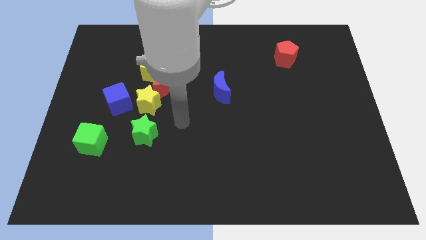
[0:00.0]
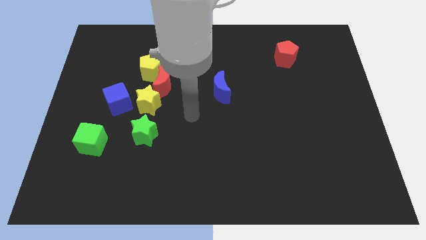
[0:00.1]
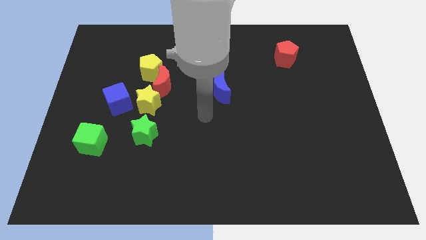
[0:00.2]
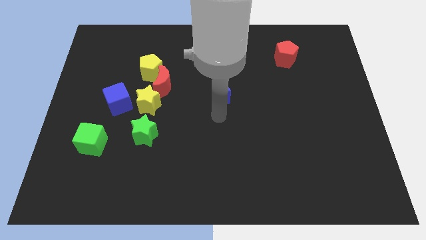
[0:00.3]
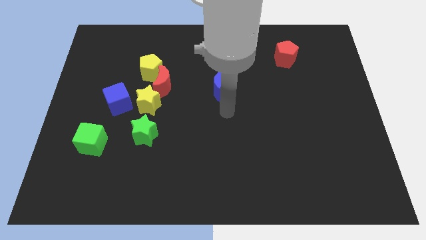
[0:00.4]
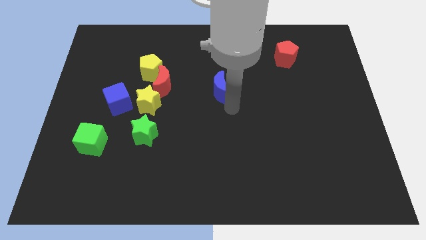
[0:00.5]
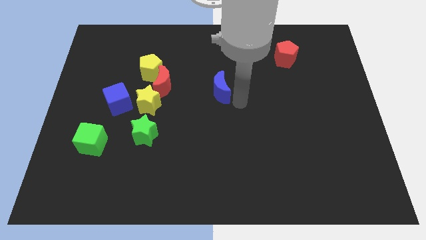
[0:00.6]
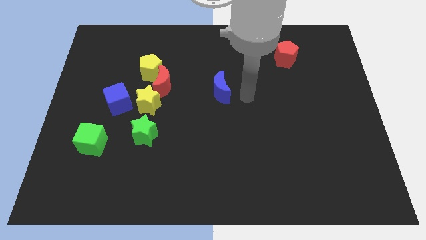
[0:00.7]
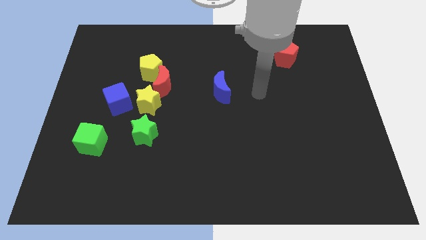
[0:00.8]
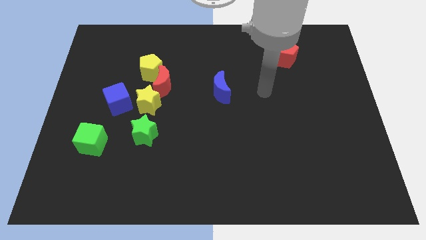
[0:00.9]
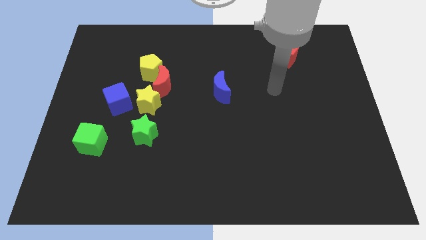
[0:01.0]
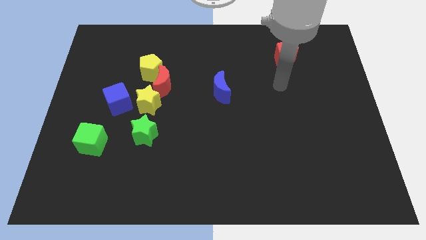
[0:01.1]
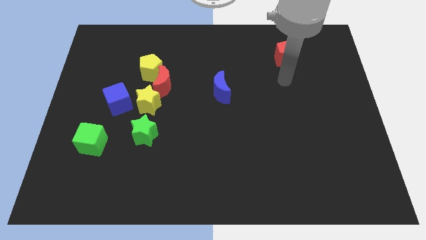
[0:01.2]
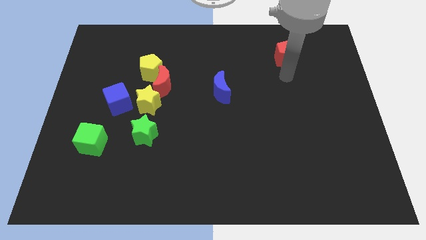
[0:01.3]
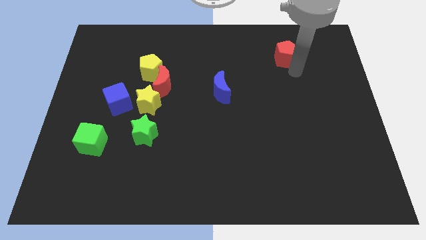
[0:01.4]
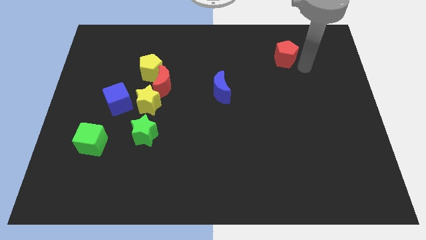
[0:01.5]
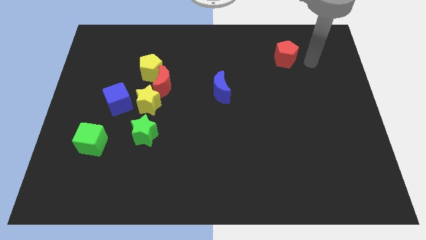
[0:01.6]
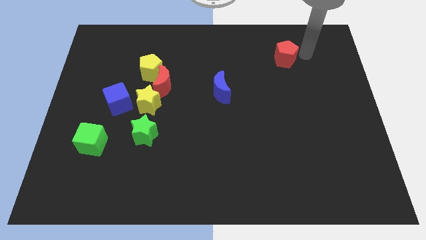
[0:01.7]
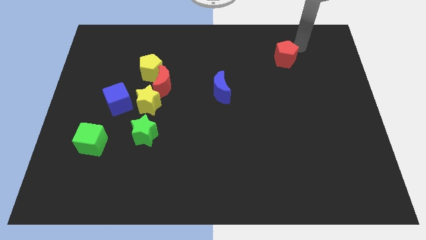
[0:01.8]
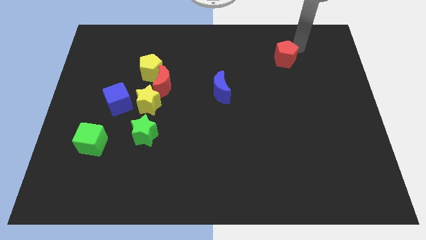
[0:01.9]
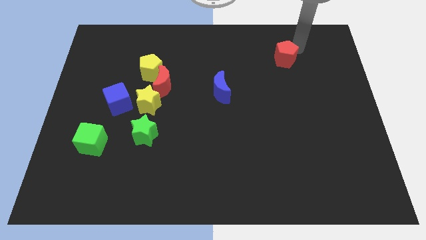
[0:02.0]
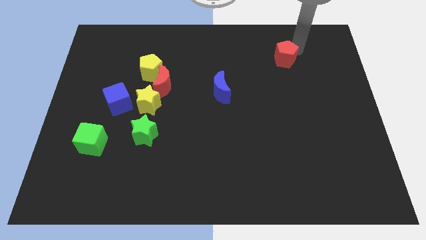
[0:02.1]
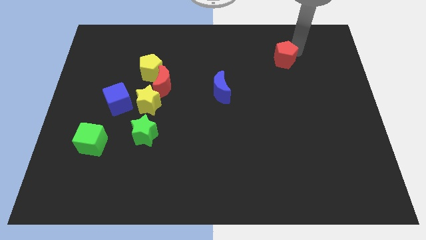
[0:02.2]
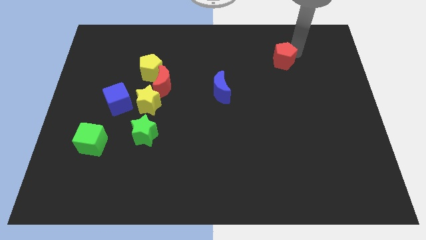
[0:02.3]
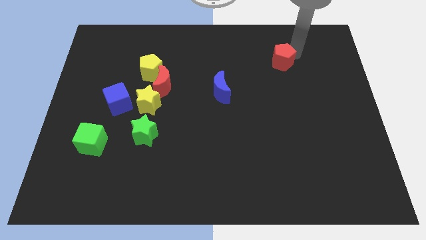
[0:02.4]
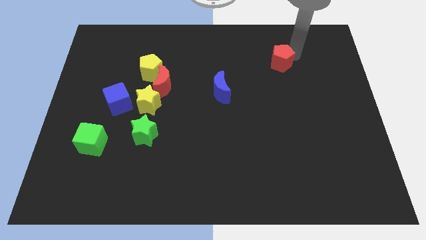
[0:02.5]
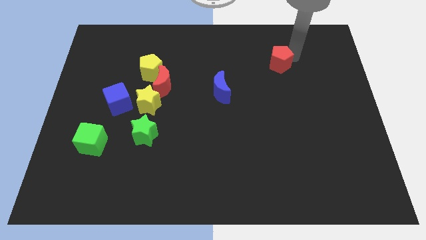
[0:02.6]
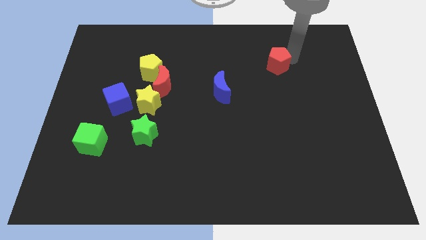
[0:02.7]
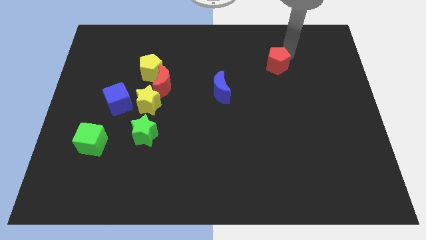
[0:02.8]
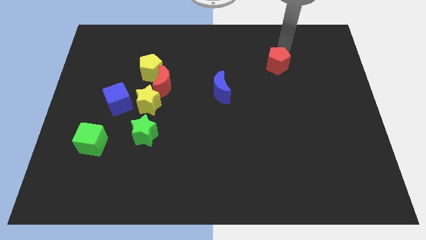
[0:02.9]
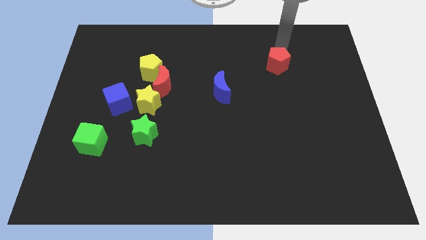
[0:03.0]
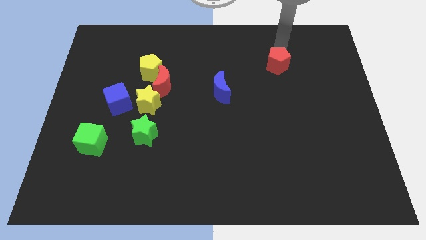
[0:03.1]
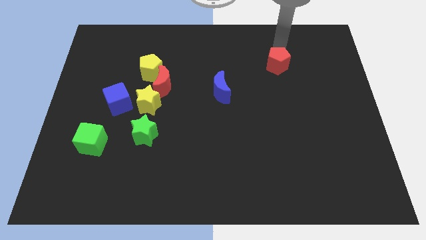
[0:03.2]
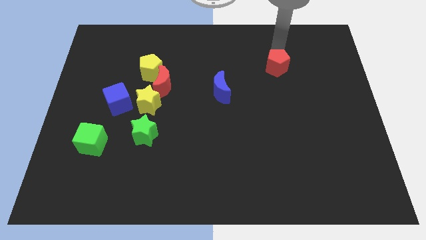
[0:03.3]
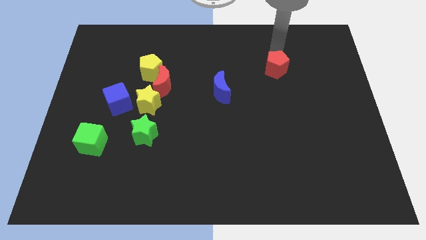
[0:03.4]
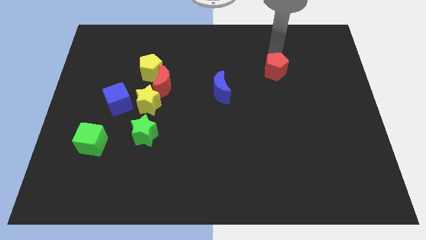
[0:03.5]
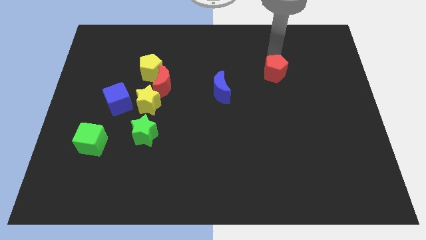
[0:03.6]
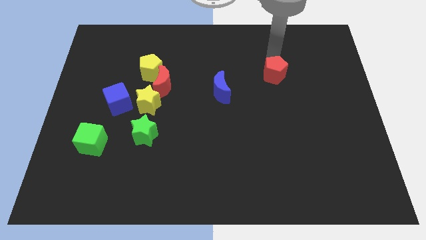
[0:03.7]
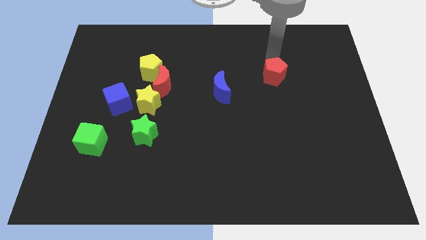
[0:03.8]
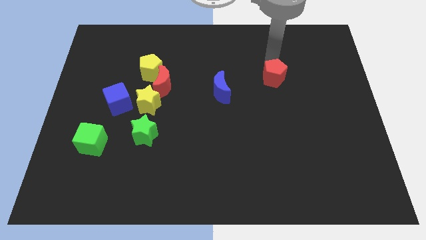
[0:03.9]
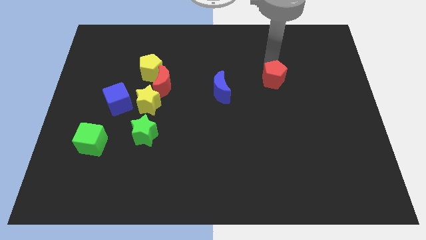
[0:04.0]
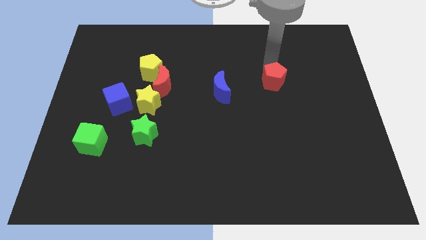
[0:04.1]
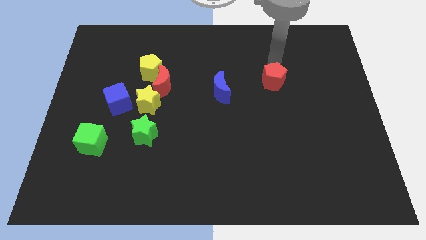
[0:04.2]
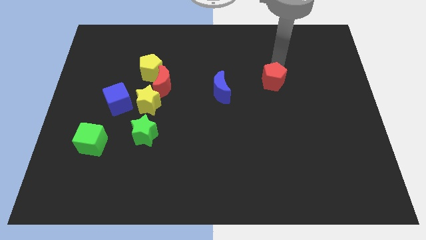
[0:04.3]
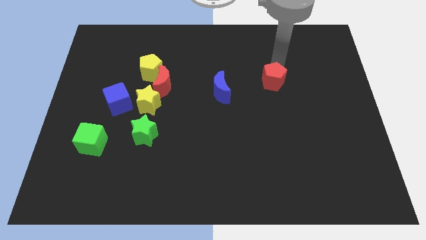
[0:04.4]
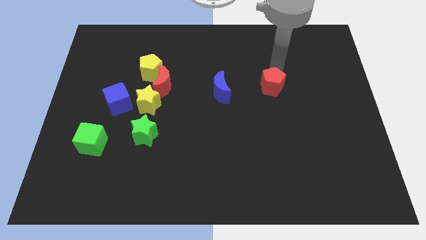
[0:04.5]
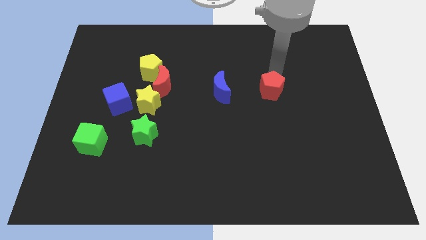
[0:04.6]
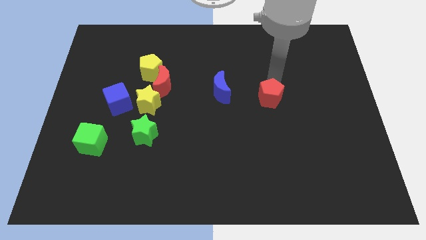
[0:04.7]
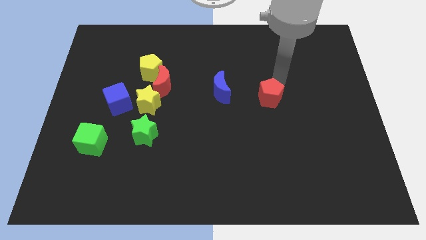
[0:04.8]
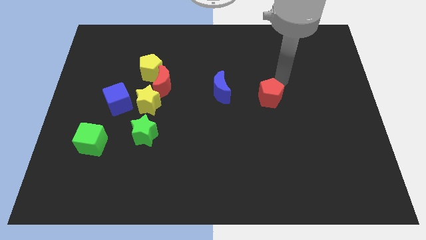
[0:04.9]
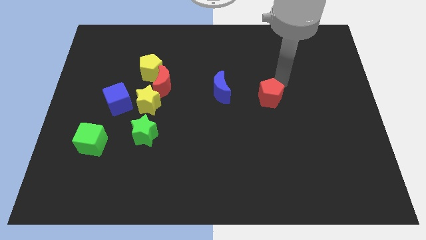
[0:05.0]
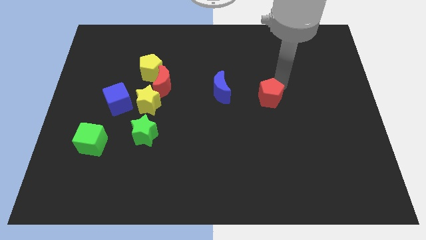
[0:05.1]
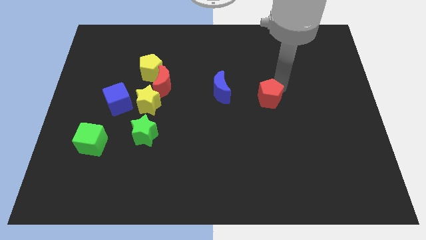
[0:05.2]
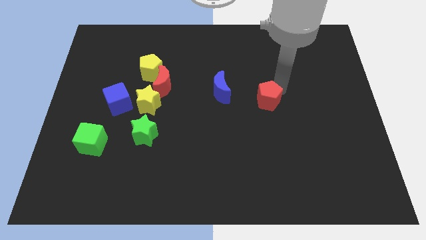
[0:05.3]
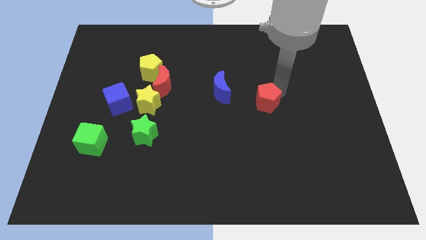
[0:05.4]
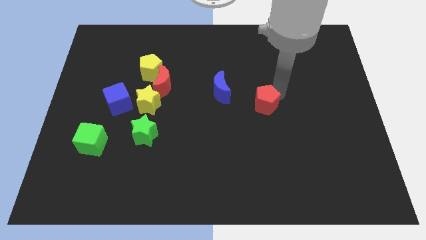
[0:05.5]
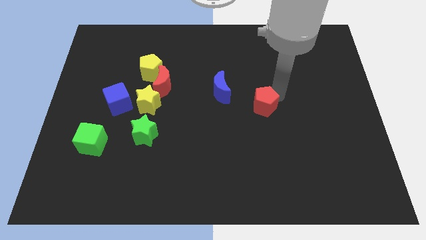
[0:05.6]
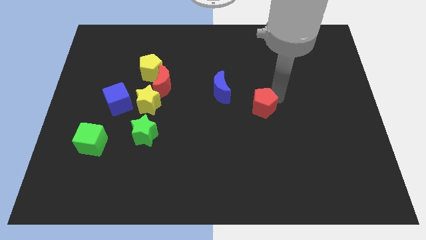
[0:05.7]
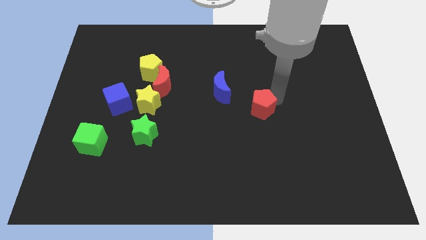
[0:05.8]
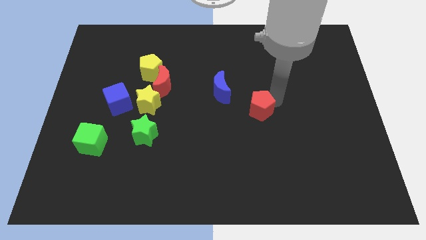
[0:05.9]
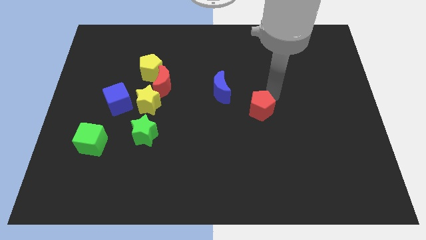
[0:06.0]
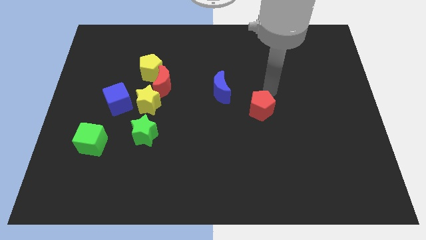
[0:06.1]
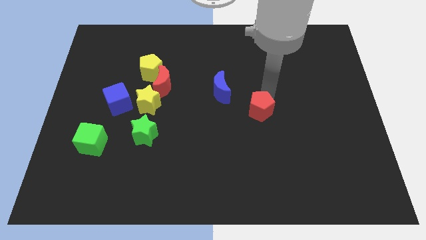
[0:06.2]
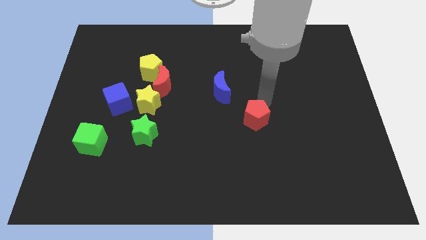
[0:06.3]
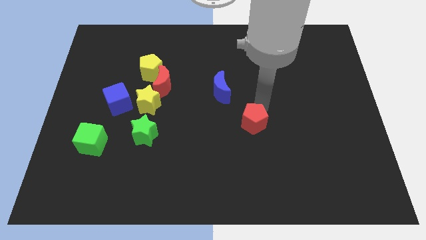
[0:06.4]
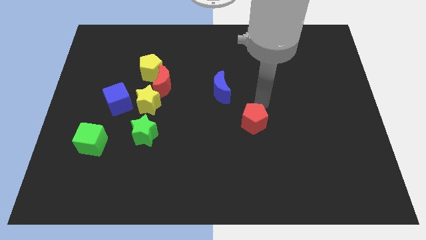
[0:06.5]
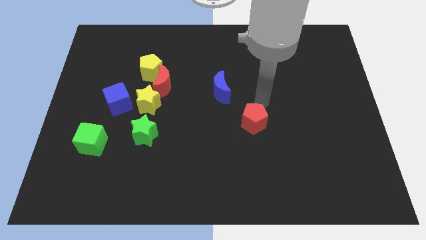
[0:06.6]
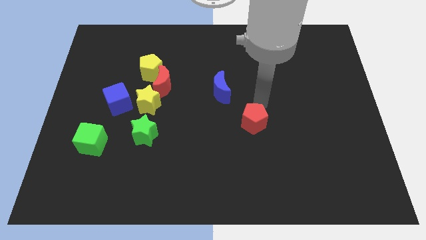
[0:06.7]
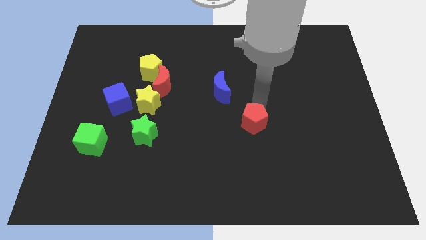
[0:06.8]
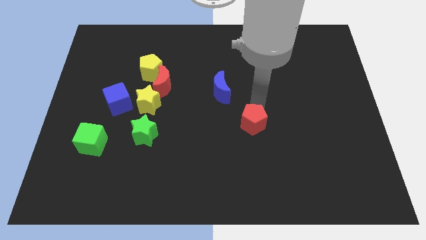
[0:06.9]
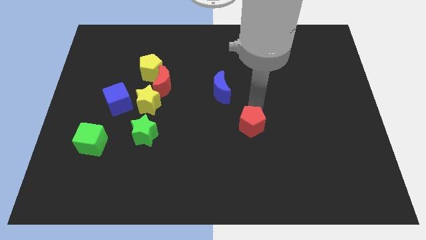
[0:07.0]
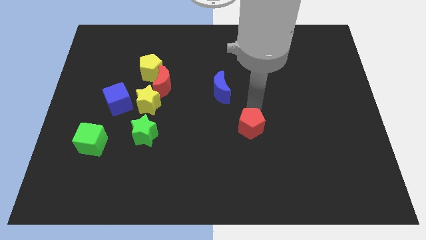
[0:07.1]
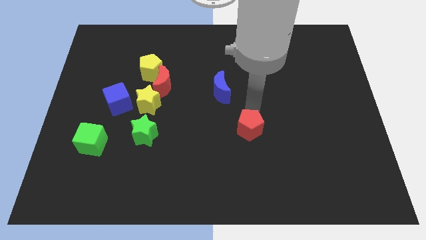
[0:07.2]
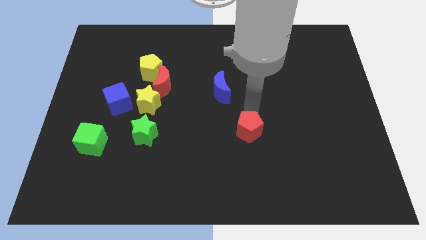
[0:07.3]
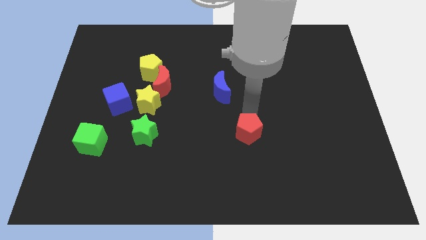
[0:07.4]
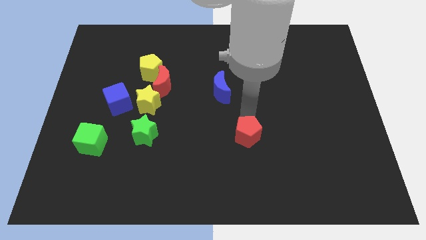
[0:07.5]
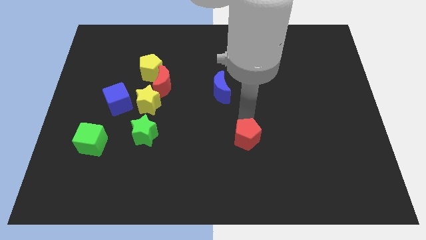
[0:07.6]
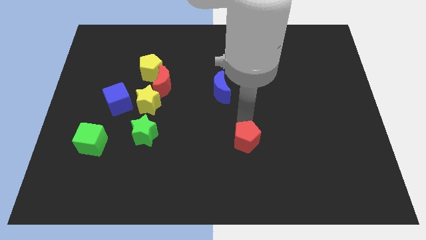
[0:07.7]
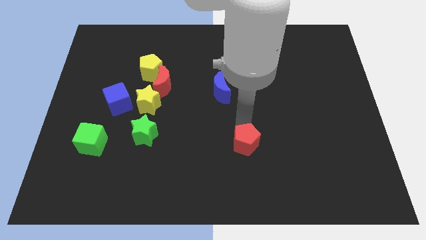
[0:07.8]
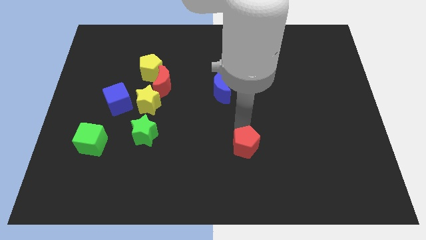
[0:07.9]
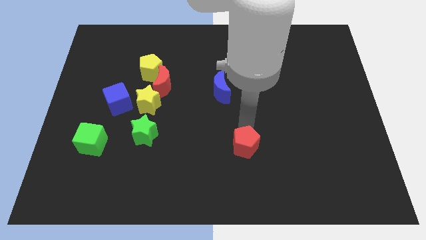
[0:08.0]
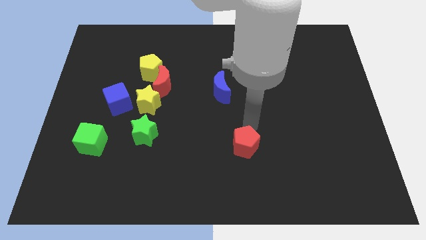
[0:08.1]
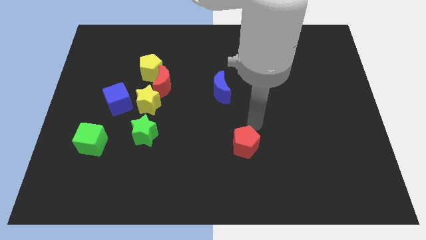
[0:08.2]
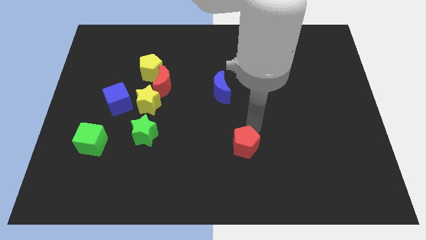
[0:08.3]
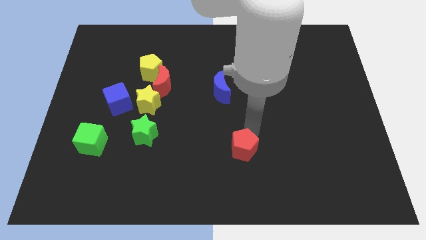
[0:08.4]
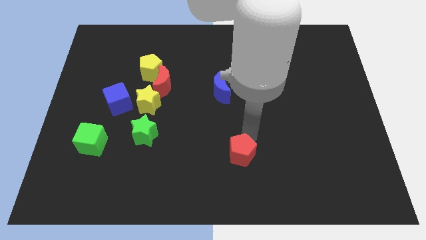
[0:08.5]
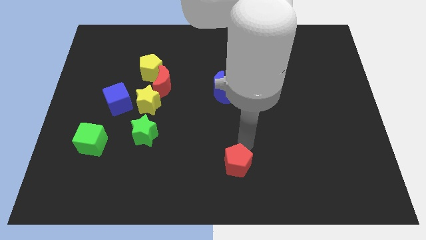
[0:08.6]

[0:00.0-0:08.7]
put the red pentagon to the bottom side
